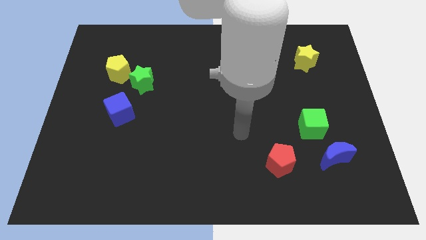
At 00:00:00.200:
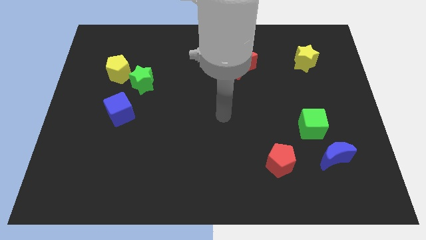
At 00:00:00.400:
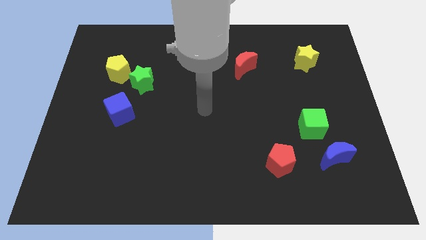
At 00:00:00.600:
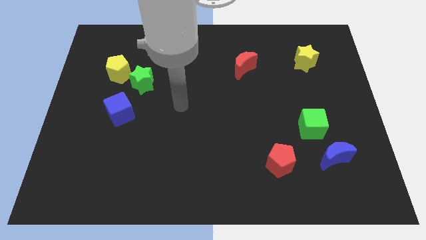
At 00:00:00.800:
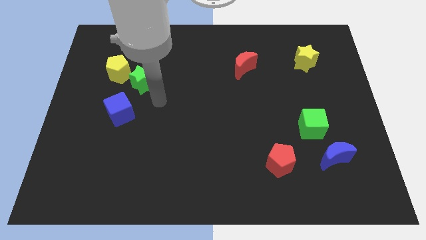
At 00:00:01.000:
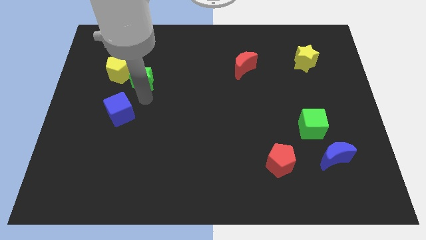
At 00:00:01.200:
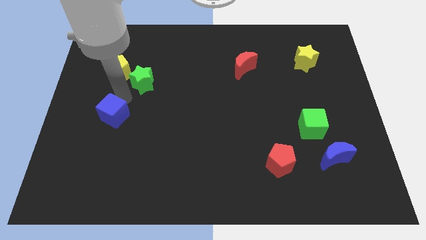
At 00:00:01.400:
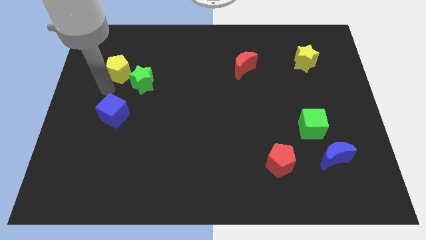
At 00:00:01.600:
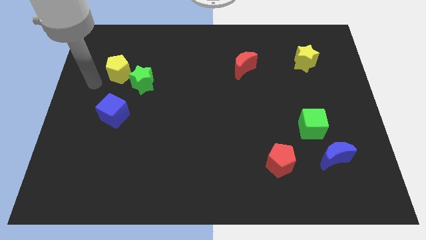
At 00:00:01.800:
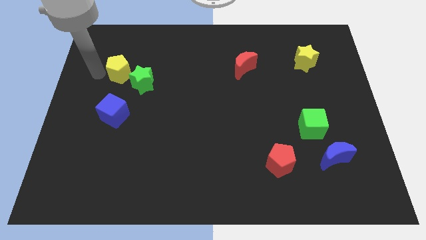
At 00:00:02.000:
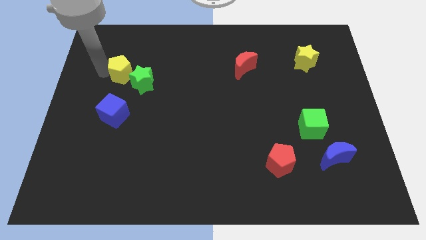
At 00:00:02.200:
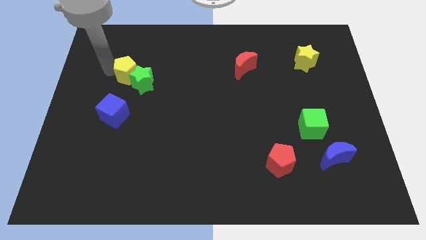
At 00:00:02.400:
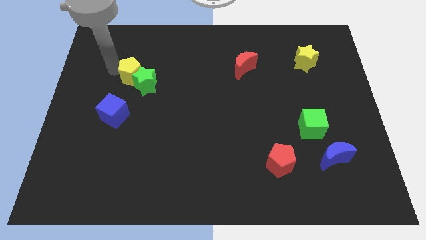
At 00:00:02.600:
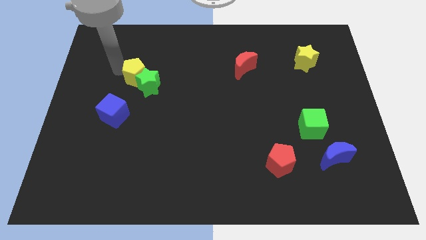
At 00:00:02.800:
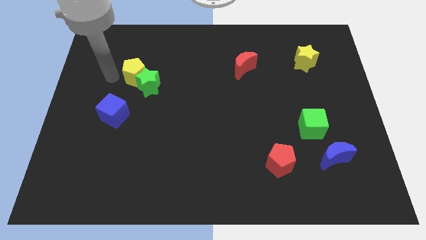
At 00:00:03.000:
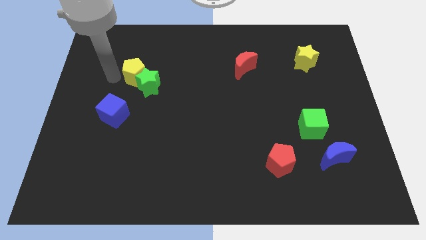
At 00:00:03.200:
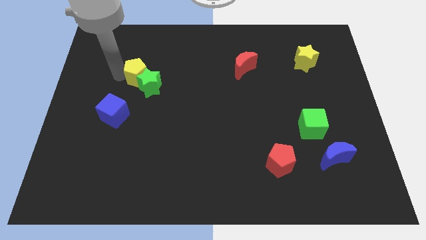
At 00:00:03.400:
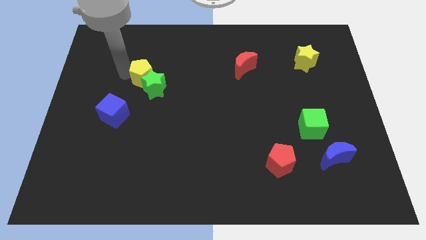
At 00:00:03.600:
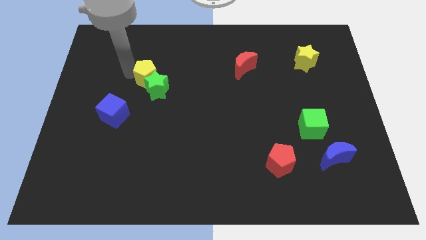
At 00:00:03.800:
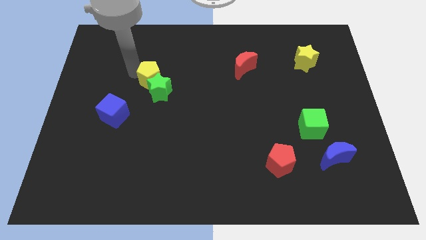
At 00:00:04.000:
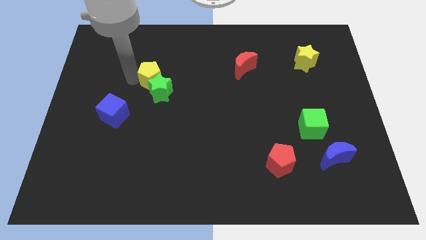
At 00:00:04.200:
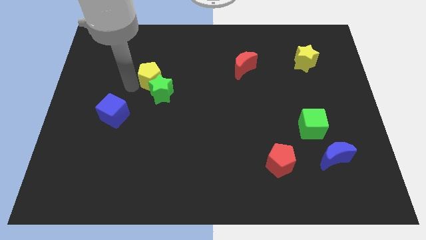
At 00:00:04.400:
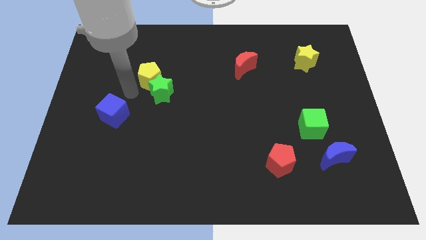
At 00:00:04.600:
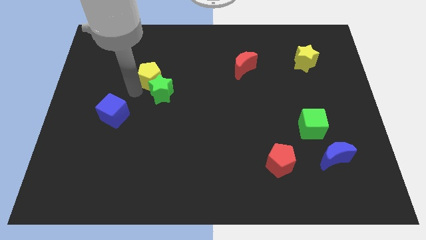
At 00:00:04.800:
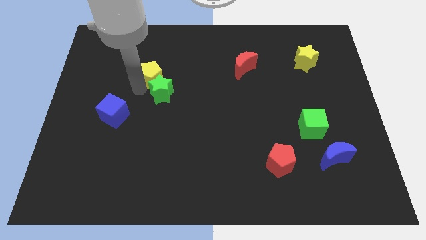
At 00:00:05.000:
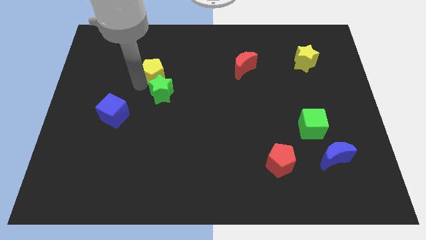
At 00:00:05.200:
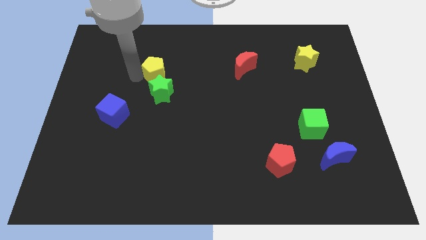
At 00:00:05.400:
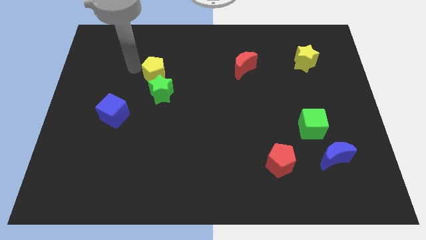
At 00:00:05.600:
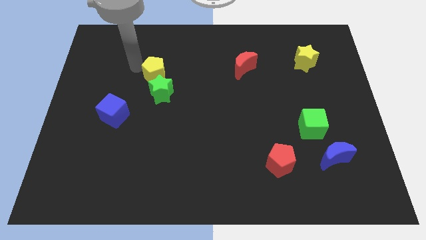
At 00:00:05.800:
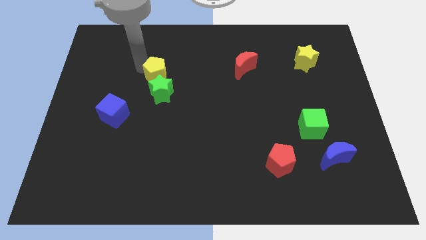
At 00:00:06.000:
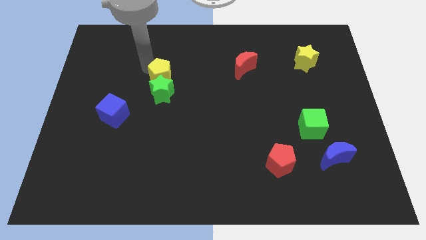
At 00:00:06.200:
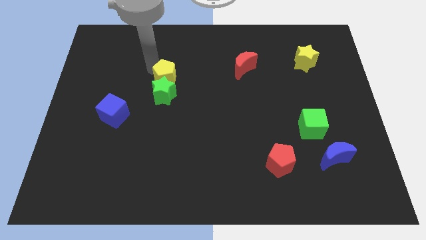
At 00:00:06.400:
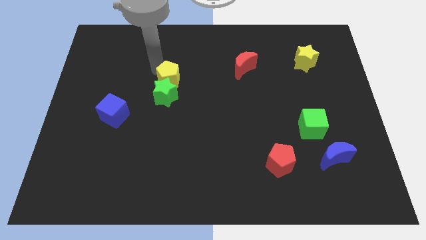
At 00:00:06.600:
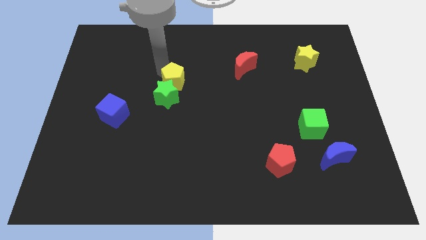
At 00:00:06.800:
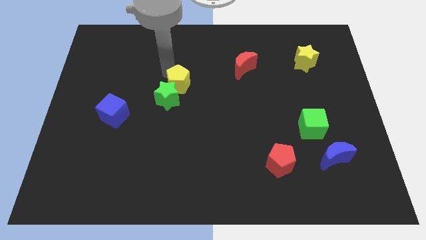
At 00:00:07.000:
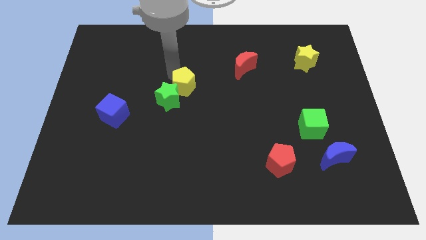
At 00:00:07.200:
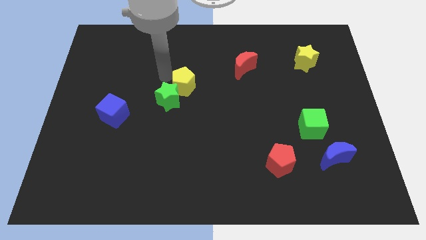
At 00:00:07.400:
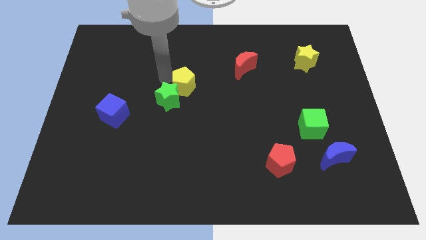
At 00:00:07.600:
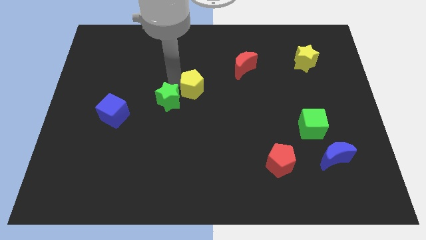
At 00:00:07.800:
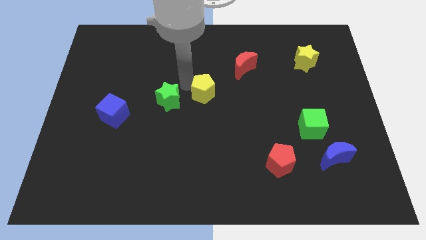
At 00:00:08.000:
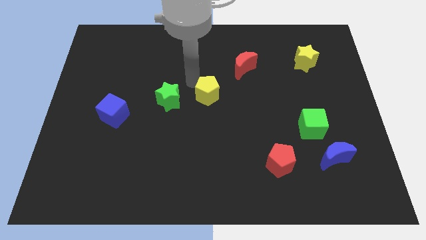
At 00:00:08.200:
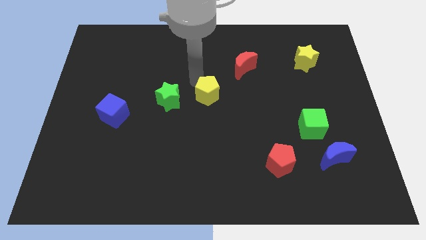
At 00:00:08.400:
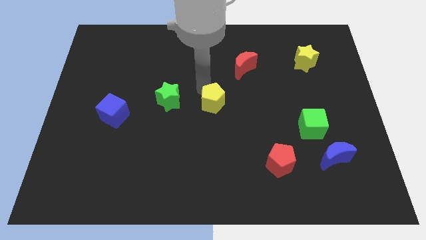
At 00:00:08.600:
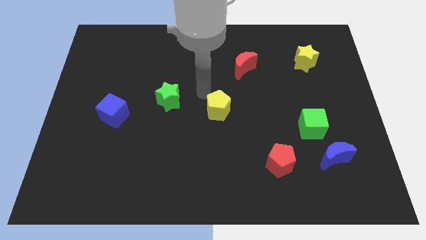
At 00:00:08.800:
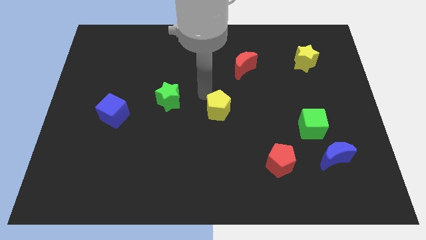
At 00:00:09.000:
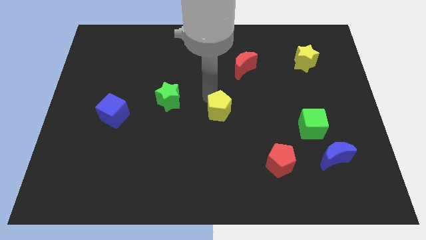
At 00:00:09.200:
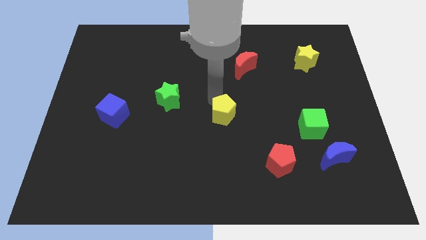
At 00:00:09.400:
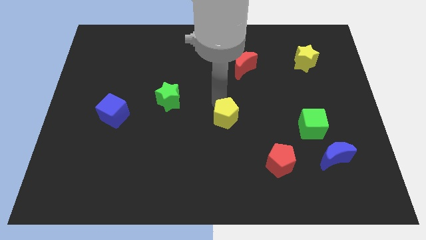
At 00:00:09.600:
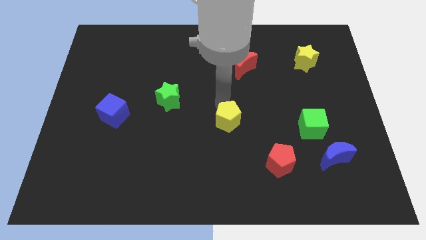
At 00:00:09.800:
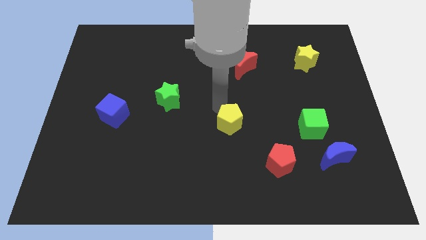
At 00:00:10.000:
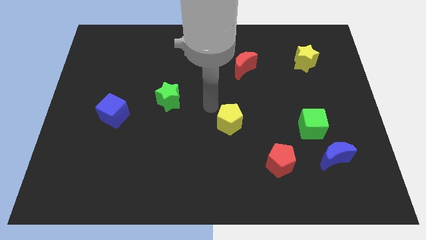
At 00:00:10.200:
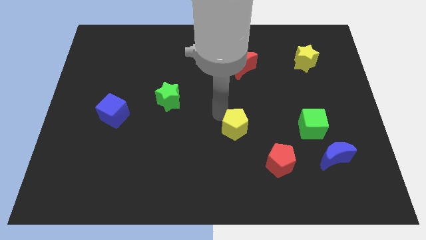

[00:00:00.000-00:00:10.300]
move the yellow pentagon to the top left side of the red pentagon

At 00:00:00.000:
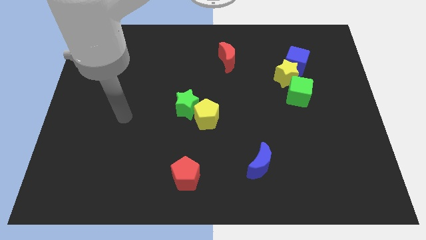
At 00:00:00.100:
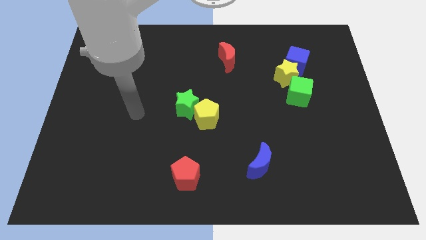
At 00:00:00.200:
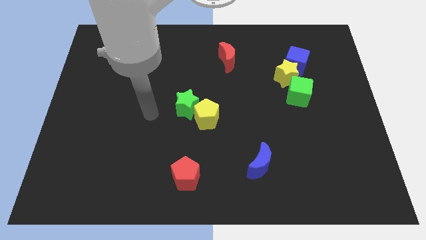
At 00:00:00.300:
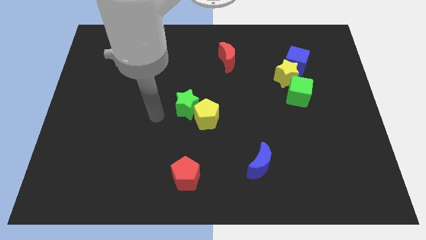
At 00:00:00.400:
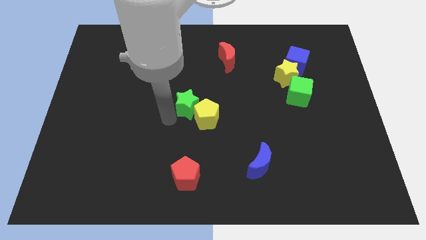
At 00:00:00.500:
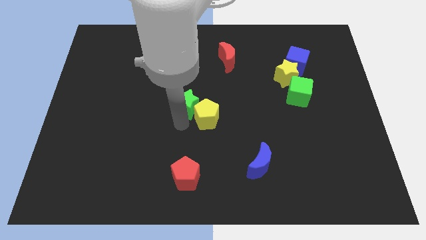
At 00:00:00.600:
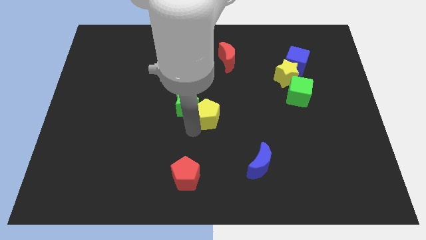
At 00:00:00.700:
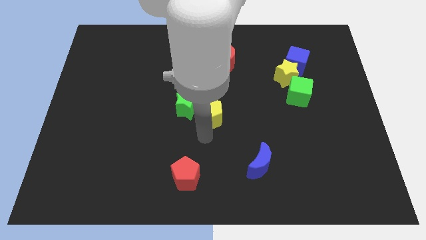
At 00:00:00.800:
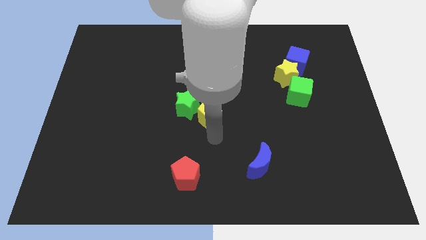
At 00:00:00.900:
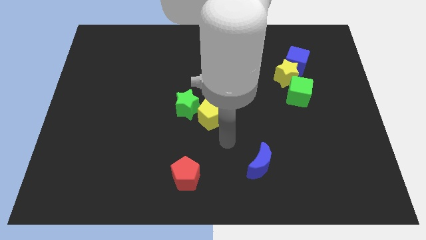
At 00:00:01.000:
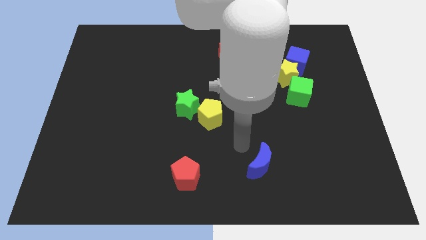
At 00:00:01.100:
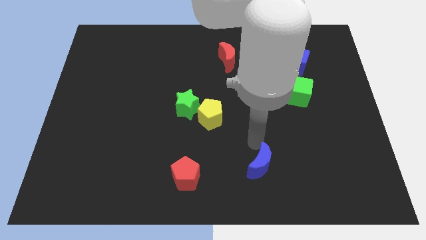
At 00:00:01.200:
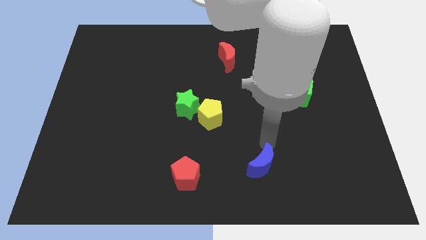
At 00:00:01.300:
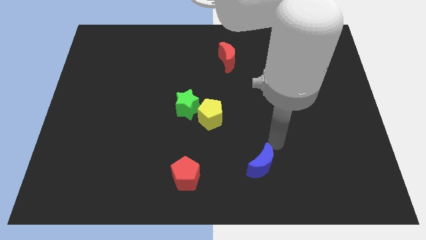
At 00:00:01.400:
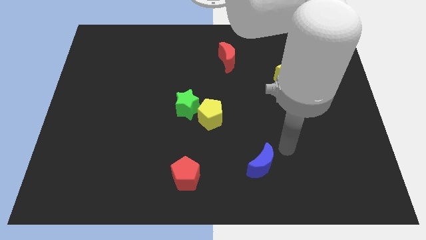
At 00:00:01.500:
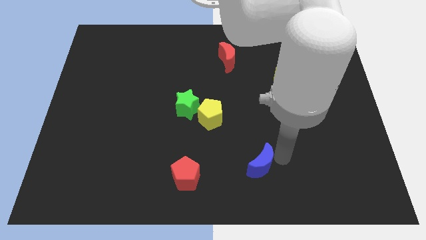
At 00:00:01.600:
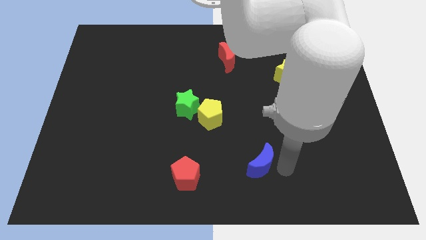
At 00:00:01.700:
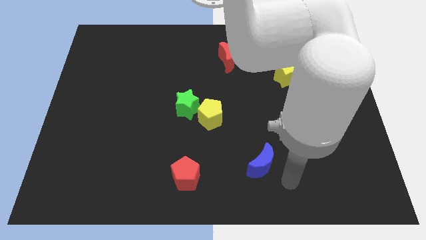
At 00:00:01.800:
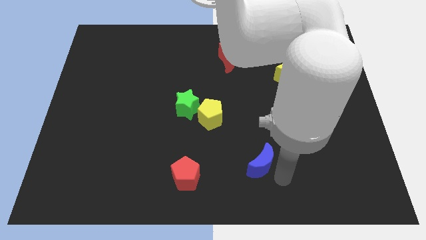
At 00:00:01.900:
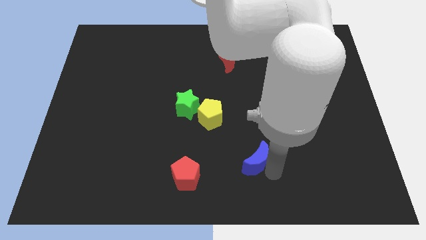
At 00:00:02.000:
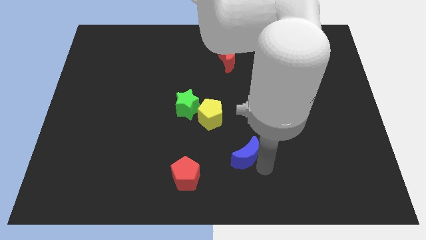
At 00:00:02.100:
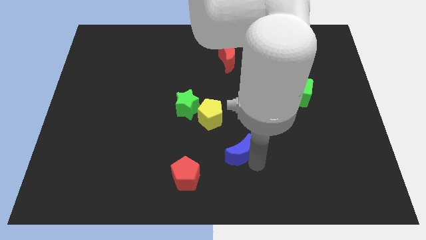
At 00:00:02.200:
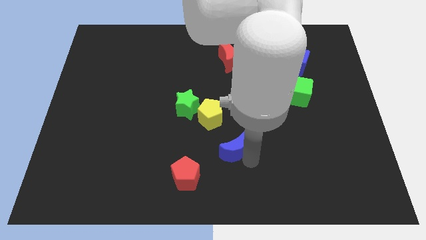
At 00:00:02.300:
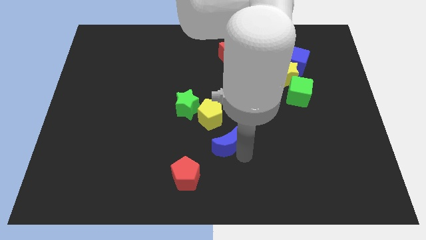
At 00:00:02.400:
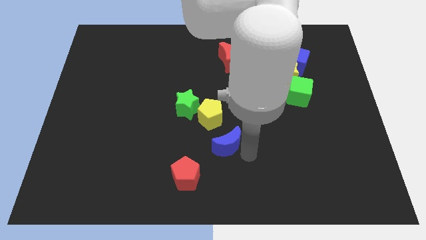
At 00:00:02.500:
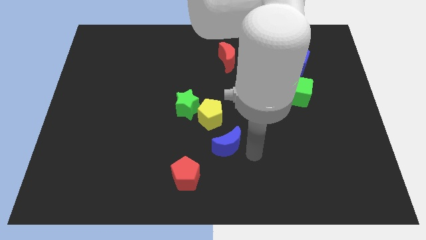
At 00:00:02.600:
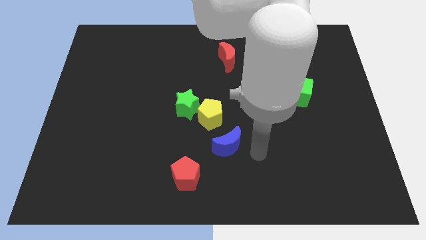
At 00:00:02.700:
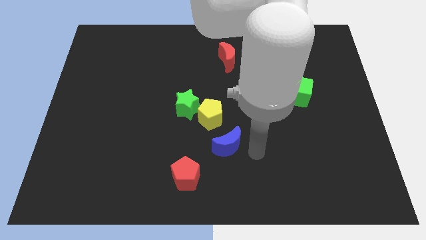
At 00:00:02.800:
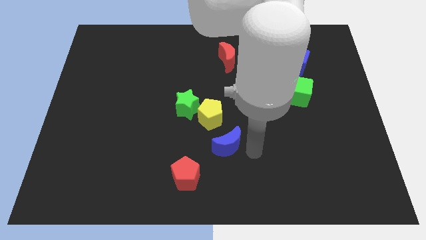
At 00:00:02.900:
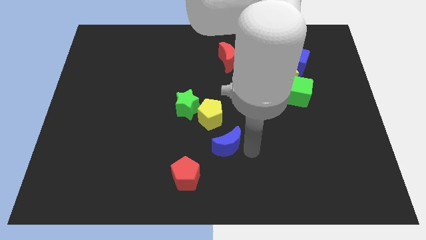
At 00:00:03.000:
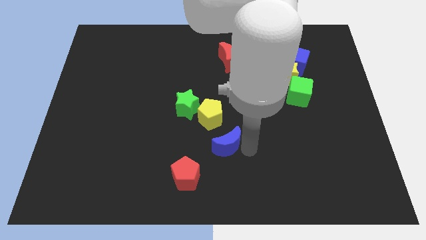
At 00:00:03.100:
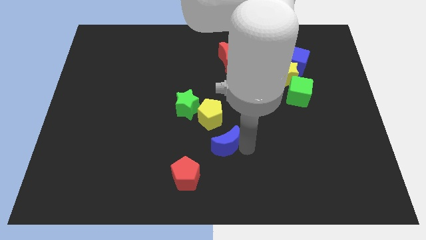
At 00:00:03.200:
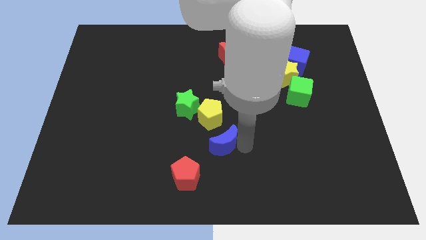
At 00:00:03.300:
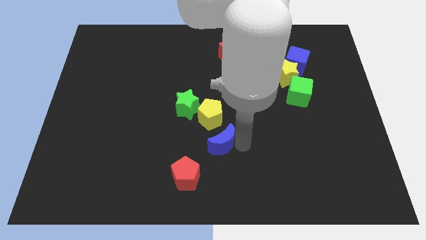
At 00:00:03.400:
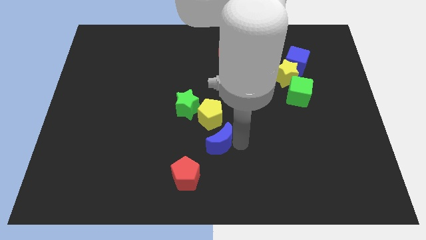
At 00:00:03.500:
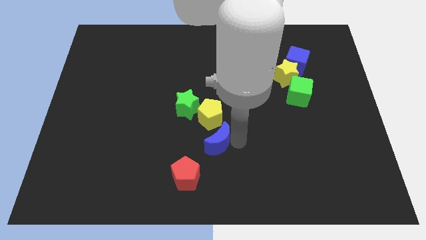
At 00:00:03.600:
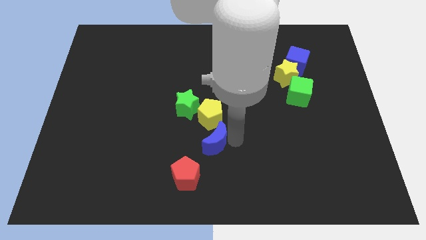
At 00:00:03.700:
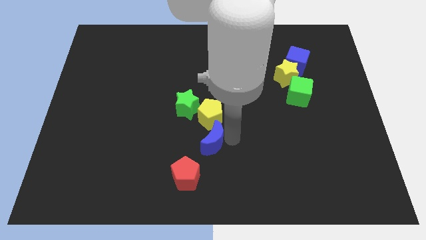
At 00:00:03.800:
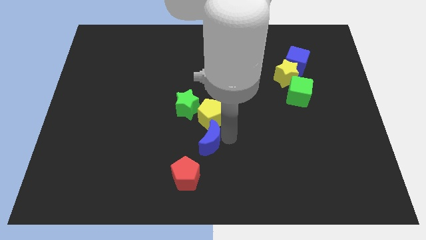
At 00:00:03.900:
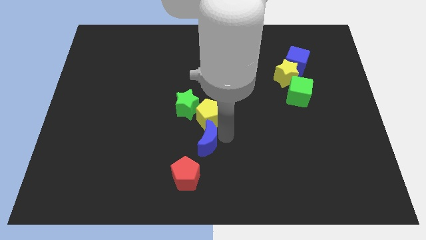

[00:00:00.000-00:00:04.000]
push the blue moon above the red pentagon
